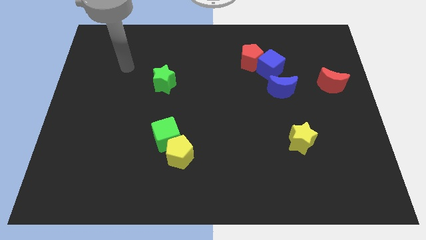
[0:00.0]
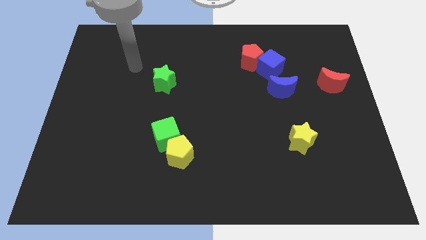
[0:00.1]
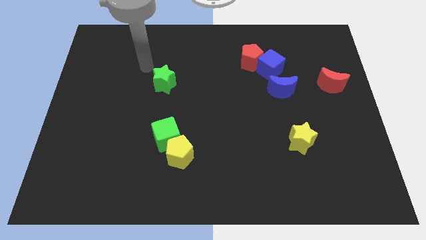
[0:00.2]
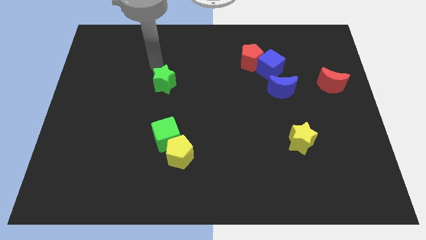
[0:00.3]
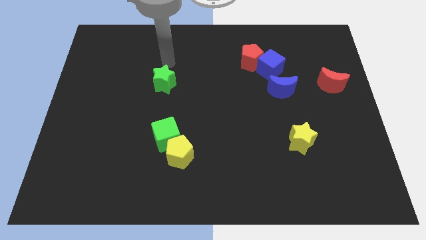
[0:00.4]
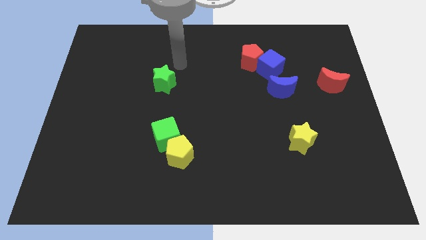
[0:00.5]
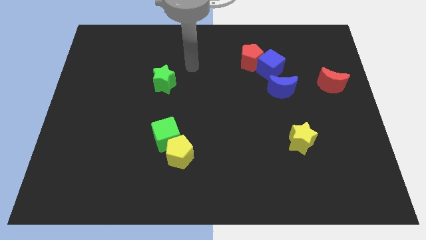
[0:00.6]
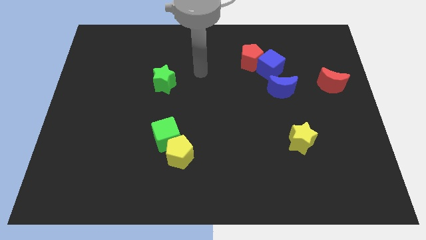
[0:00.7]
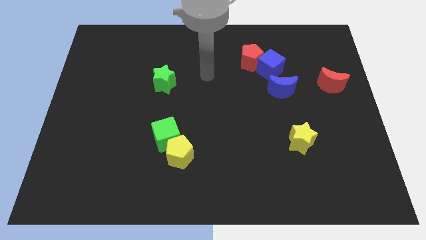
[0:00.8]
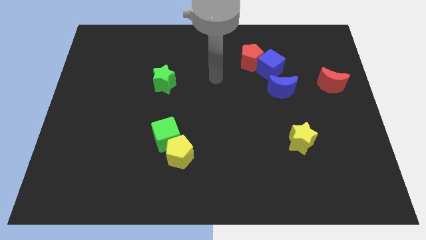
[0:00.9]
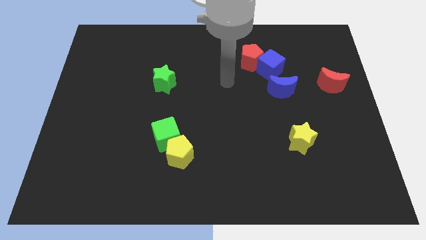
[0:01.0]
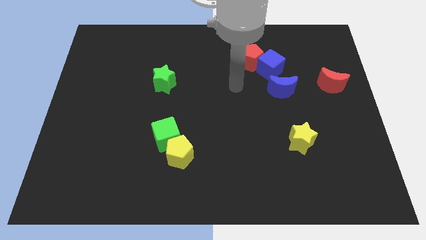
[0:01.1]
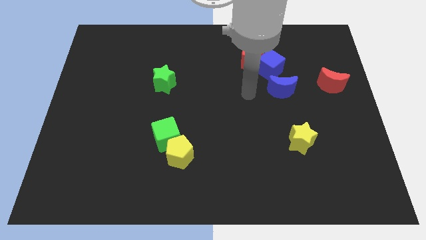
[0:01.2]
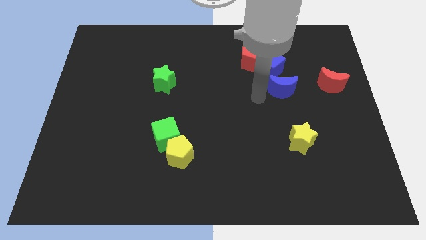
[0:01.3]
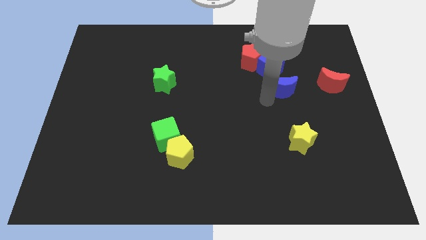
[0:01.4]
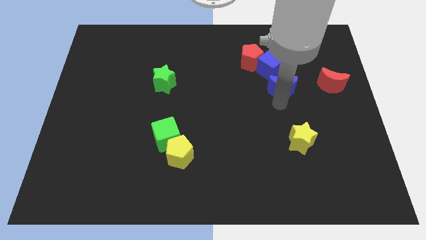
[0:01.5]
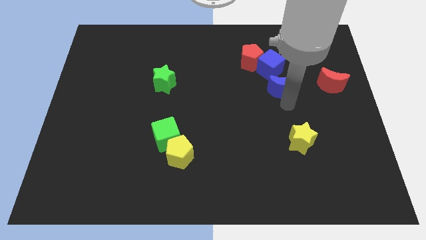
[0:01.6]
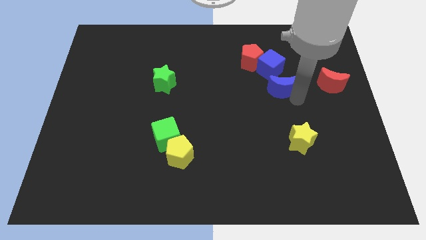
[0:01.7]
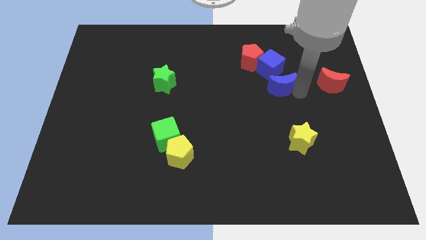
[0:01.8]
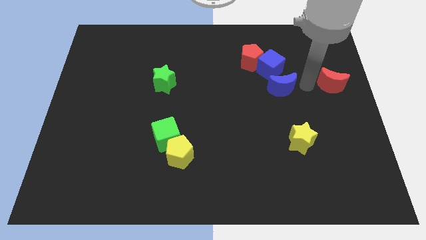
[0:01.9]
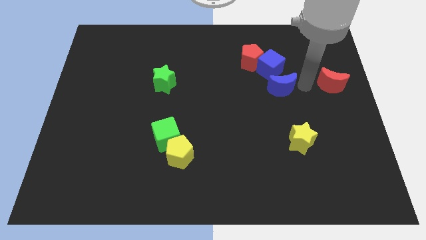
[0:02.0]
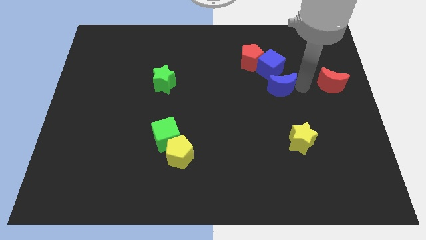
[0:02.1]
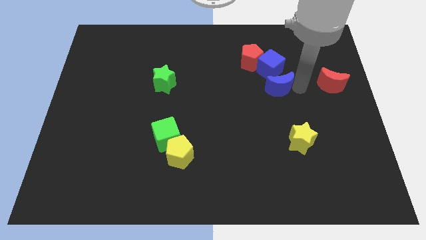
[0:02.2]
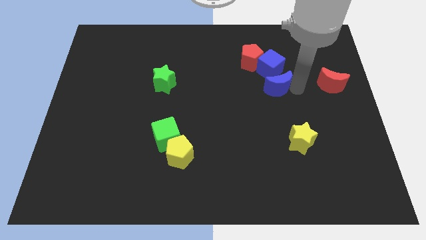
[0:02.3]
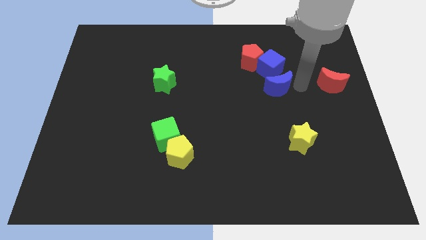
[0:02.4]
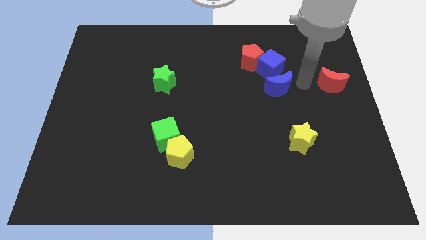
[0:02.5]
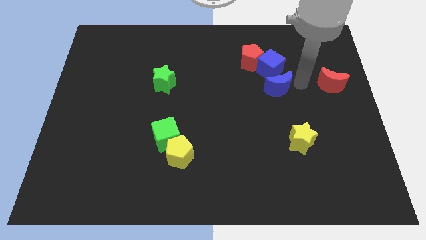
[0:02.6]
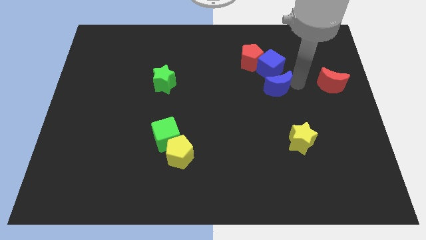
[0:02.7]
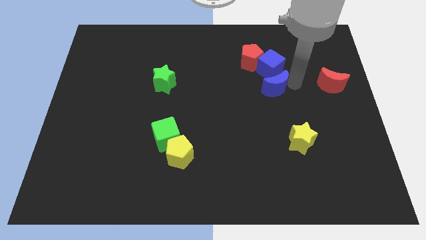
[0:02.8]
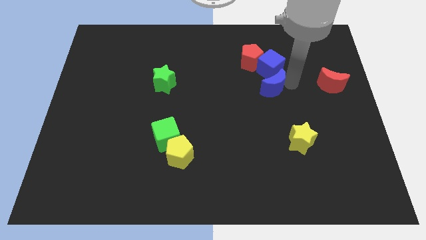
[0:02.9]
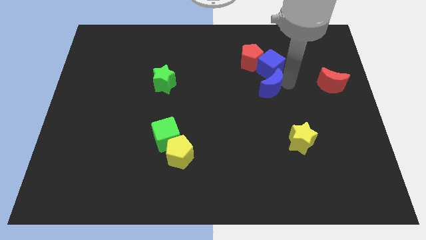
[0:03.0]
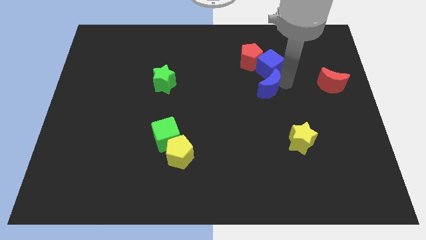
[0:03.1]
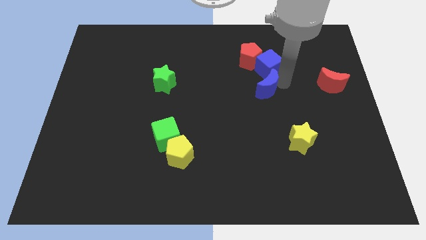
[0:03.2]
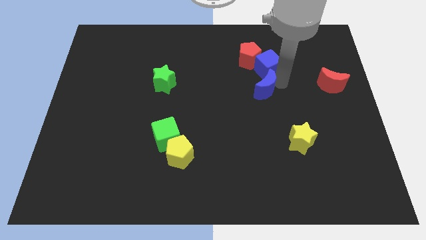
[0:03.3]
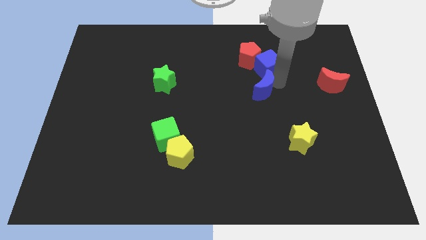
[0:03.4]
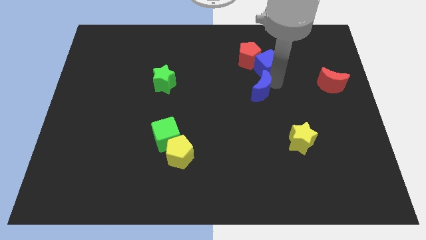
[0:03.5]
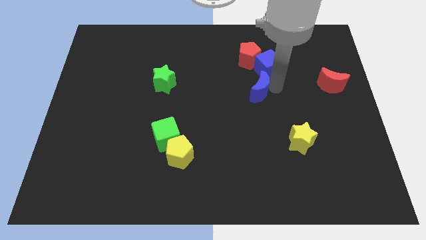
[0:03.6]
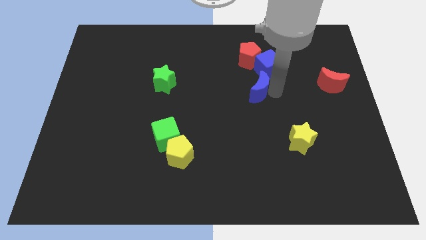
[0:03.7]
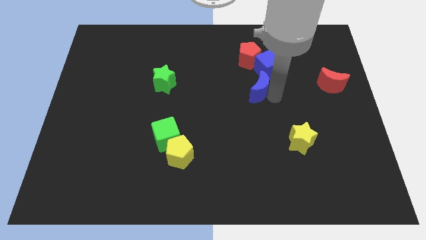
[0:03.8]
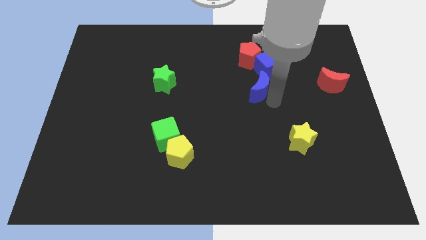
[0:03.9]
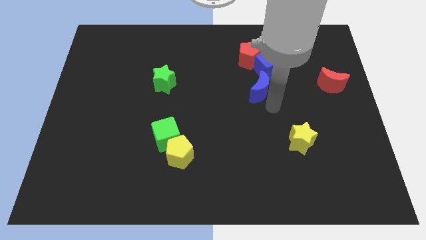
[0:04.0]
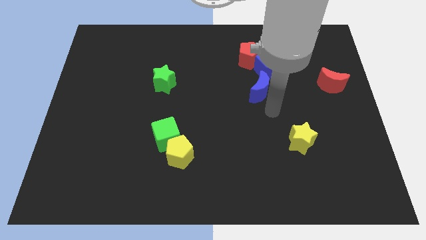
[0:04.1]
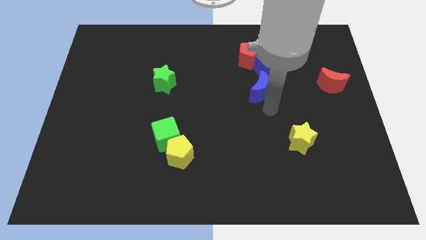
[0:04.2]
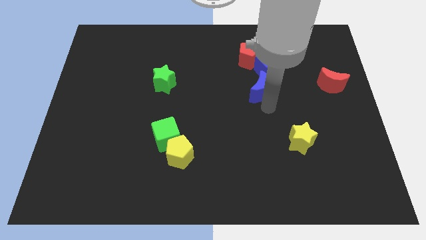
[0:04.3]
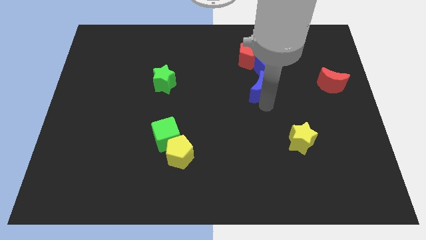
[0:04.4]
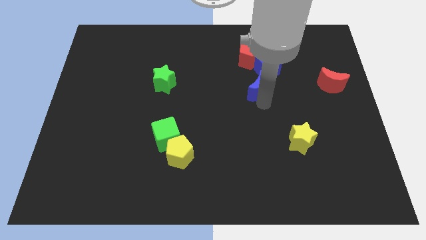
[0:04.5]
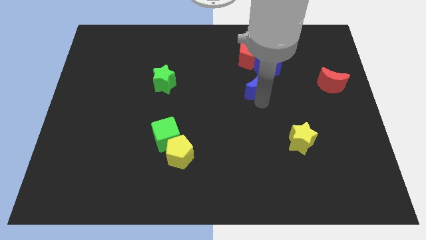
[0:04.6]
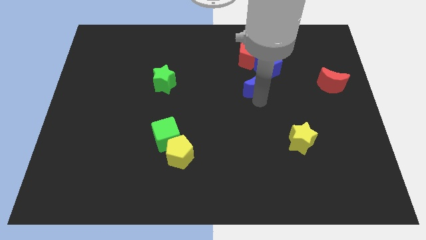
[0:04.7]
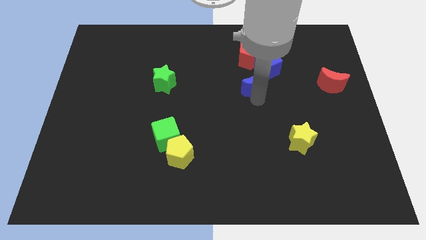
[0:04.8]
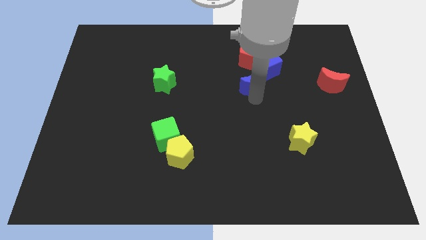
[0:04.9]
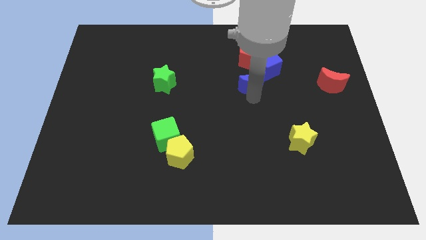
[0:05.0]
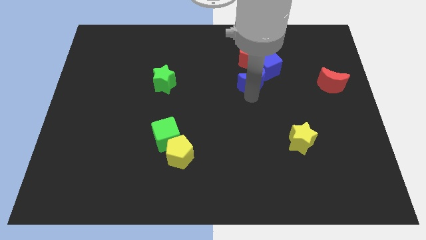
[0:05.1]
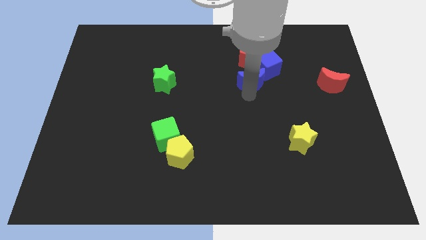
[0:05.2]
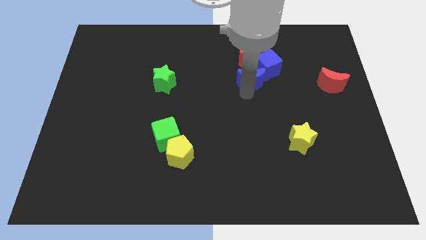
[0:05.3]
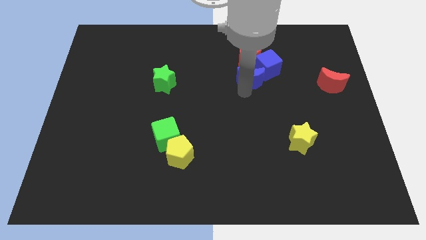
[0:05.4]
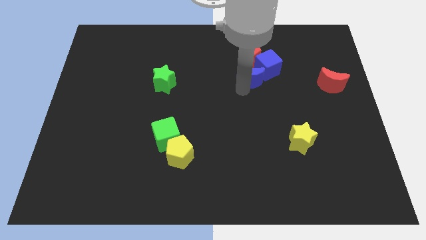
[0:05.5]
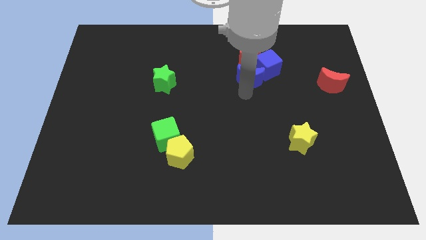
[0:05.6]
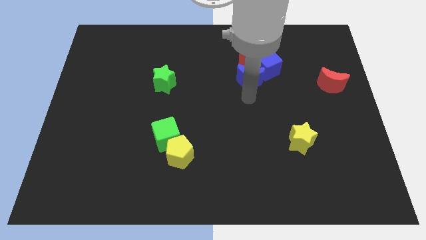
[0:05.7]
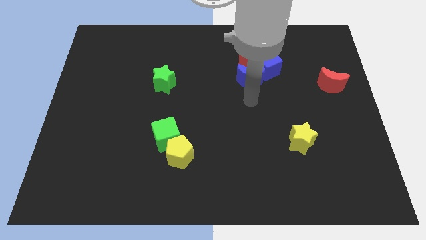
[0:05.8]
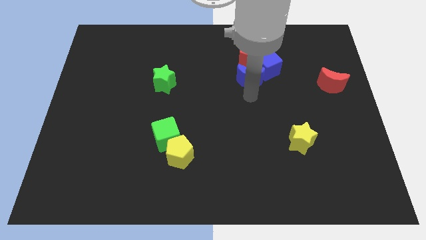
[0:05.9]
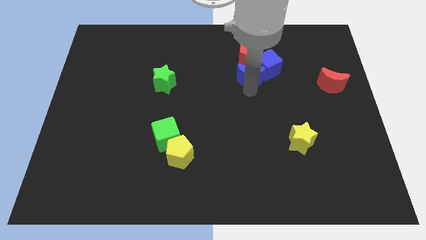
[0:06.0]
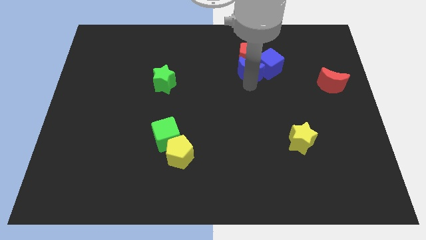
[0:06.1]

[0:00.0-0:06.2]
move the blue moon towards the red pentagon

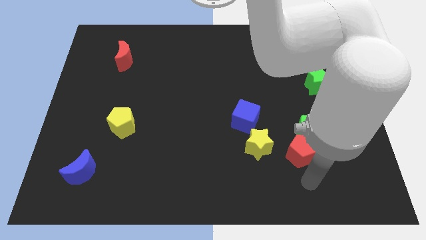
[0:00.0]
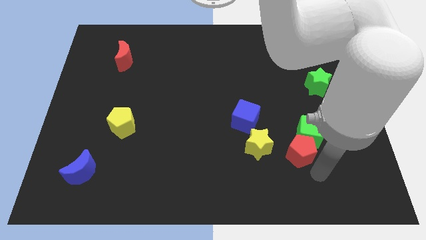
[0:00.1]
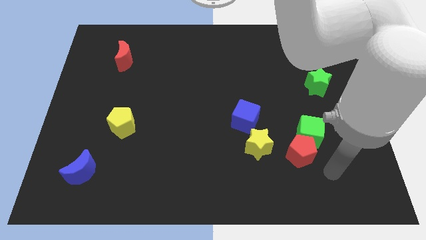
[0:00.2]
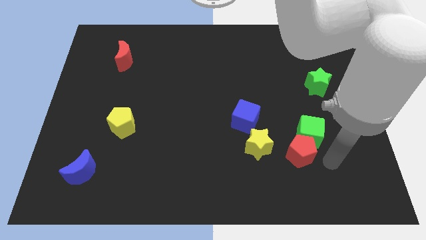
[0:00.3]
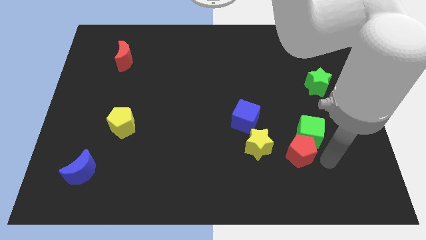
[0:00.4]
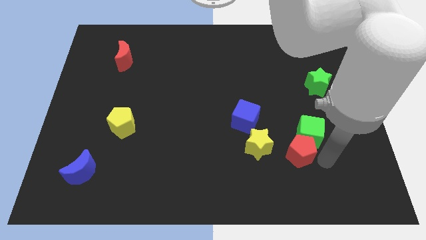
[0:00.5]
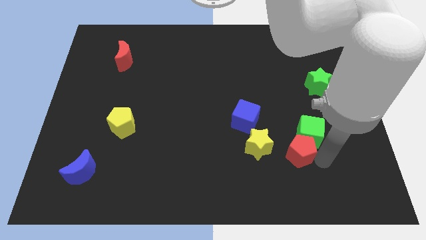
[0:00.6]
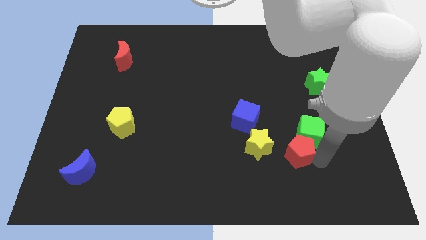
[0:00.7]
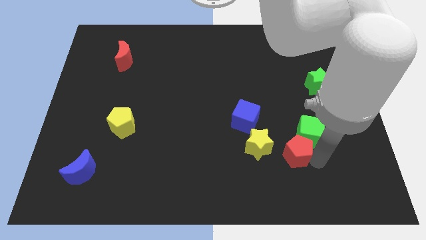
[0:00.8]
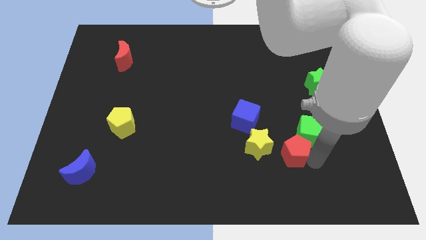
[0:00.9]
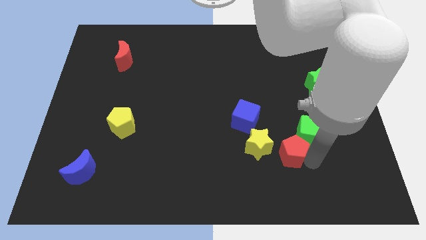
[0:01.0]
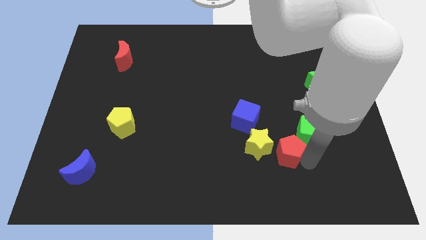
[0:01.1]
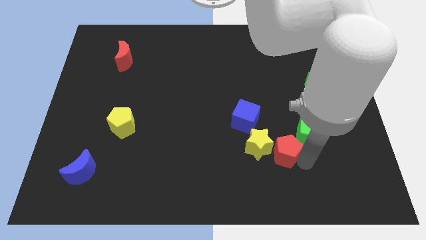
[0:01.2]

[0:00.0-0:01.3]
put the red pentagon close to the yellow star
